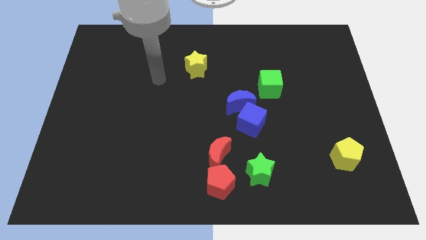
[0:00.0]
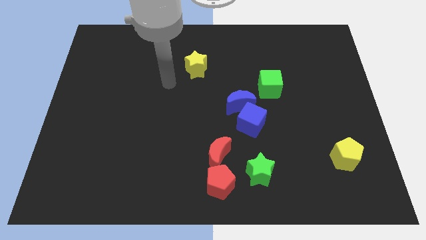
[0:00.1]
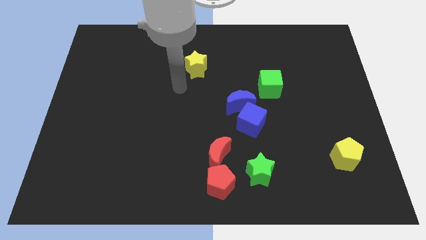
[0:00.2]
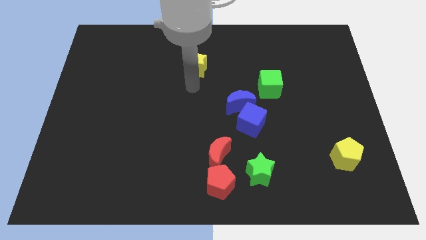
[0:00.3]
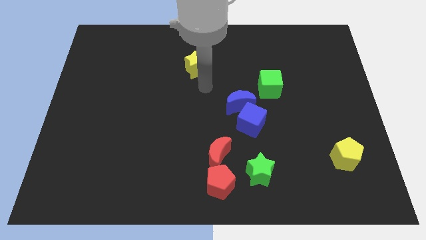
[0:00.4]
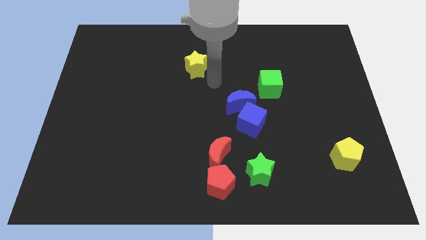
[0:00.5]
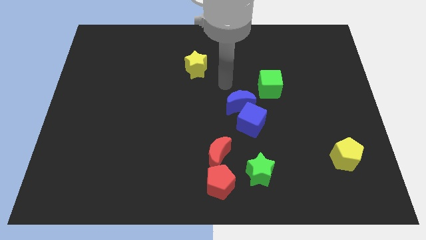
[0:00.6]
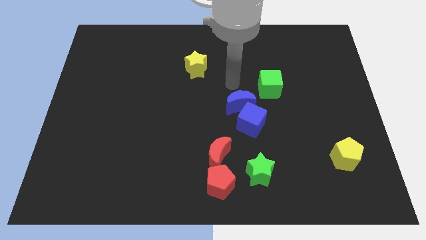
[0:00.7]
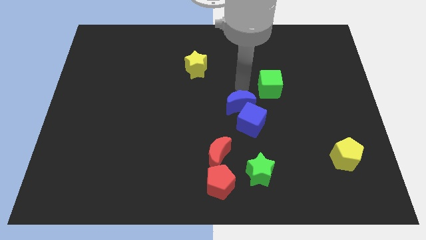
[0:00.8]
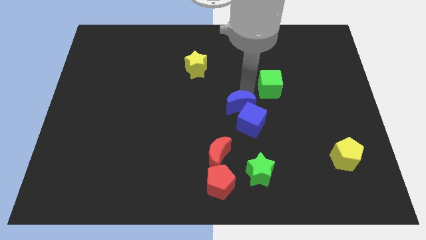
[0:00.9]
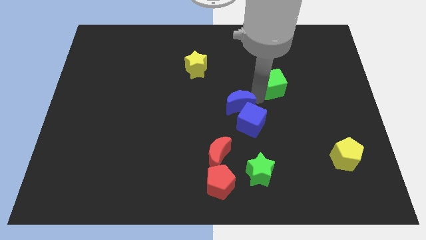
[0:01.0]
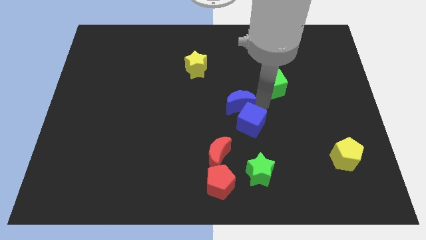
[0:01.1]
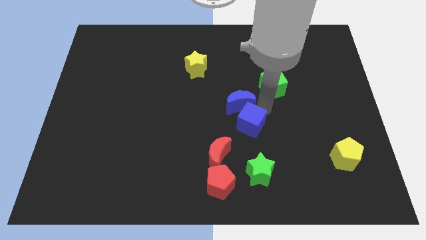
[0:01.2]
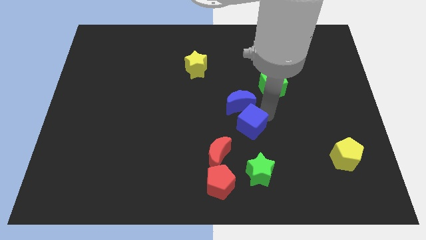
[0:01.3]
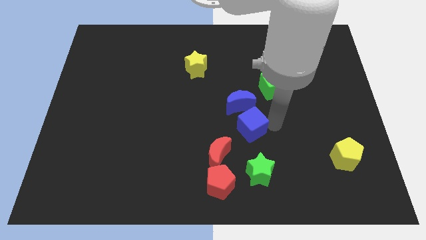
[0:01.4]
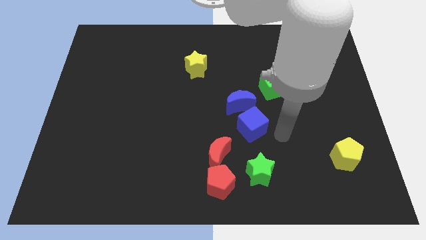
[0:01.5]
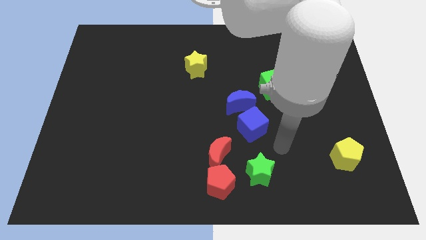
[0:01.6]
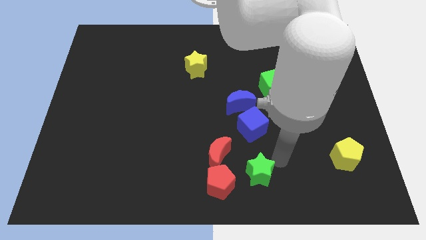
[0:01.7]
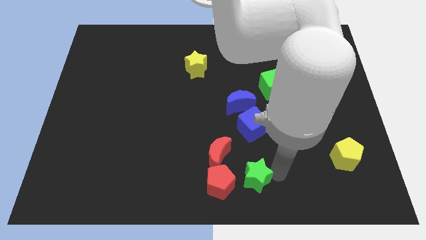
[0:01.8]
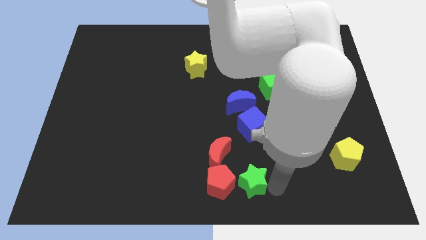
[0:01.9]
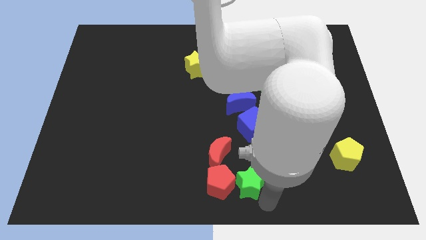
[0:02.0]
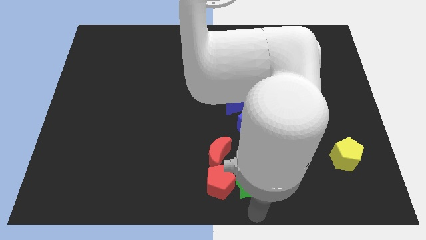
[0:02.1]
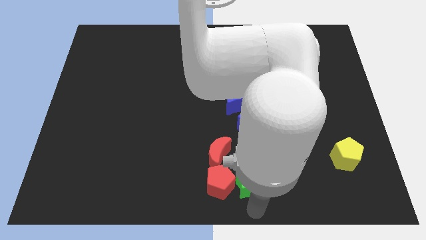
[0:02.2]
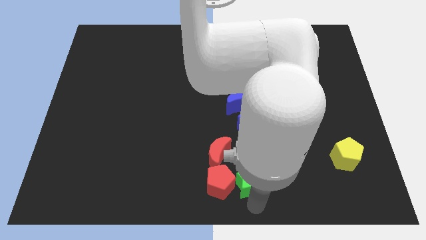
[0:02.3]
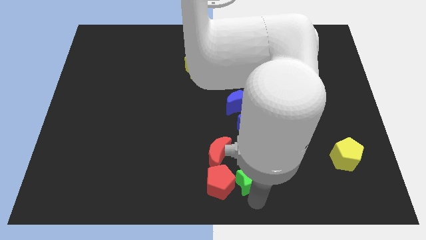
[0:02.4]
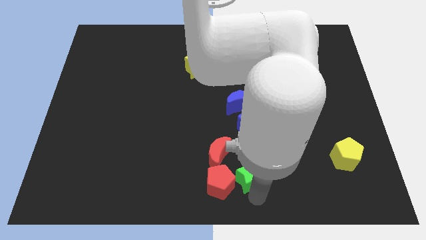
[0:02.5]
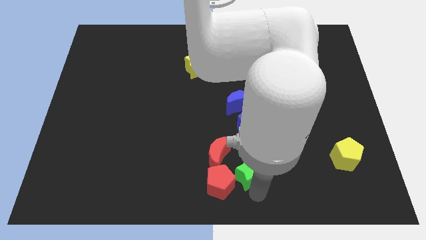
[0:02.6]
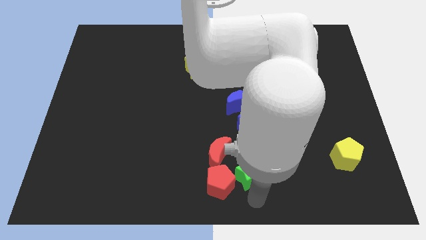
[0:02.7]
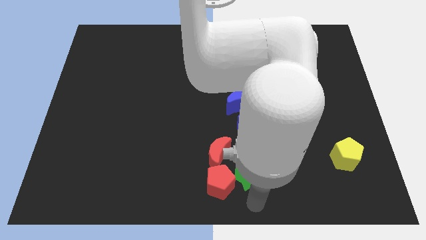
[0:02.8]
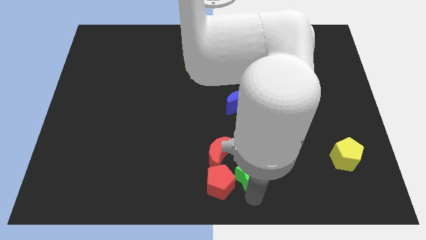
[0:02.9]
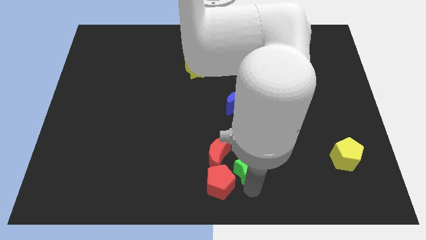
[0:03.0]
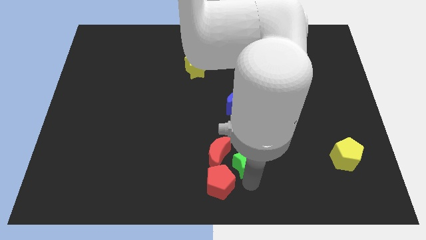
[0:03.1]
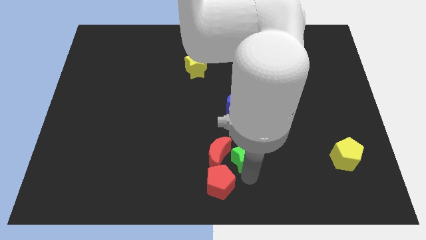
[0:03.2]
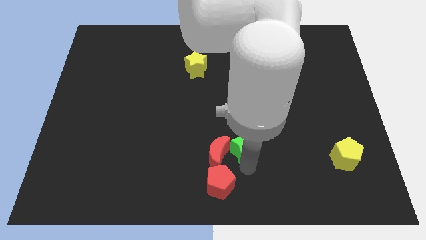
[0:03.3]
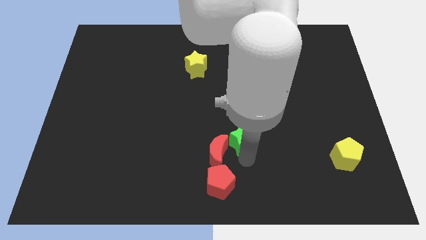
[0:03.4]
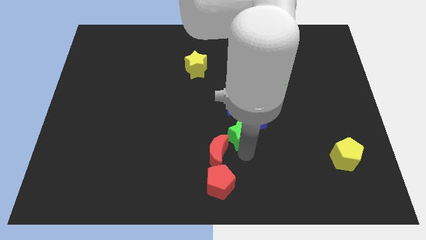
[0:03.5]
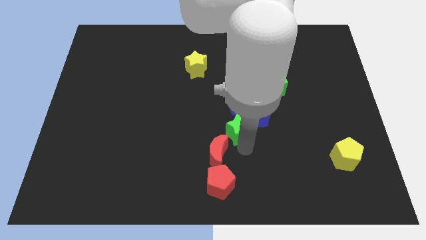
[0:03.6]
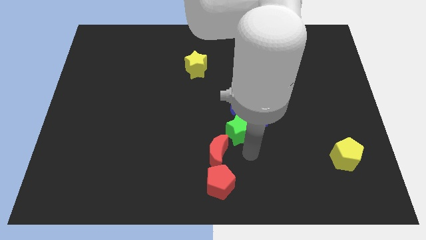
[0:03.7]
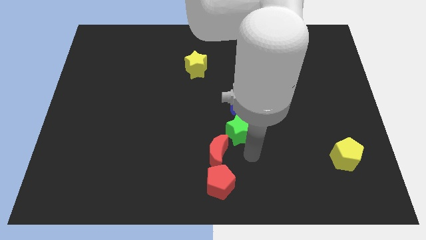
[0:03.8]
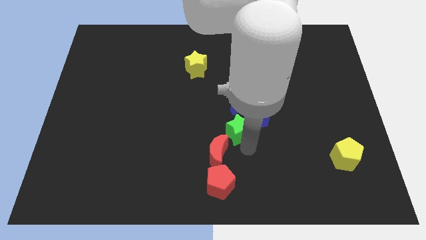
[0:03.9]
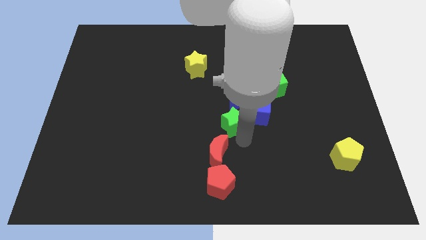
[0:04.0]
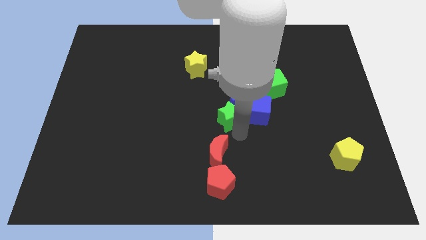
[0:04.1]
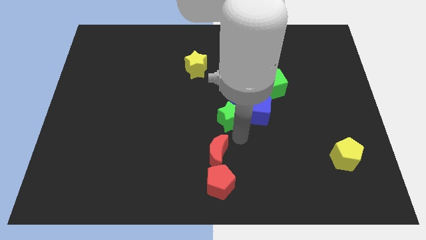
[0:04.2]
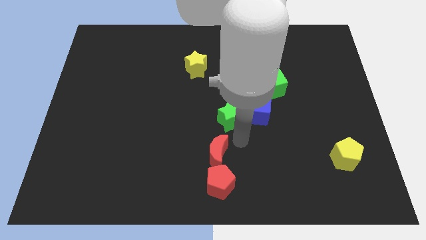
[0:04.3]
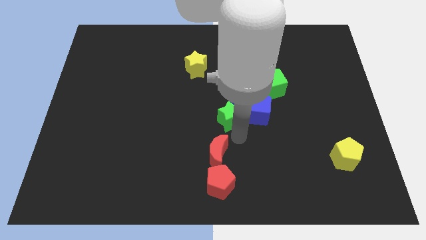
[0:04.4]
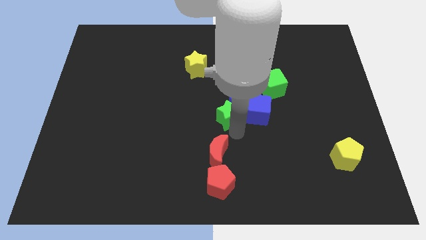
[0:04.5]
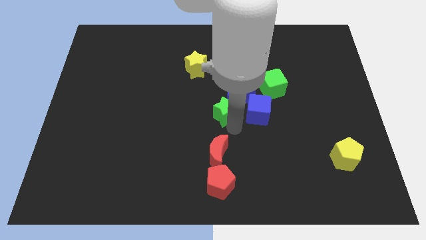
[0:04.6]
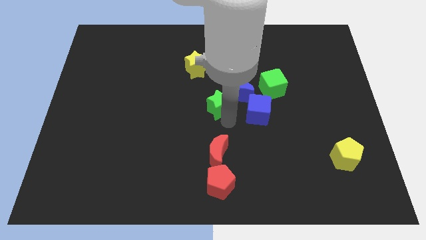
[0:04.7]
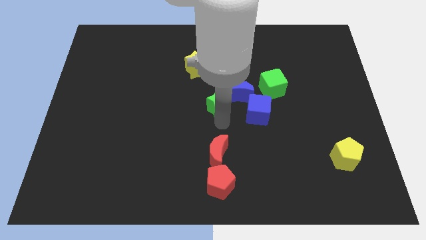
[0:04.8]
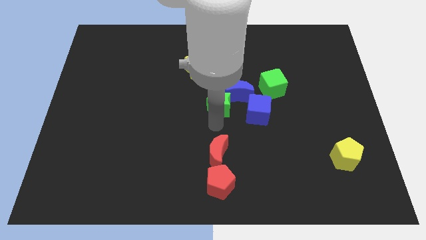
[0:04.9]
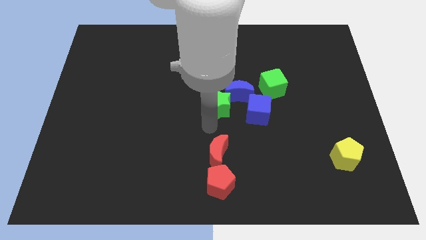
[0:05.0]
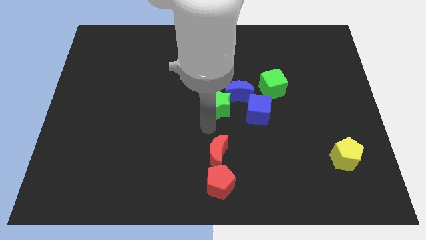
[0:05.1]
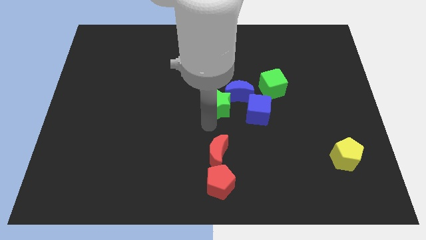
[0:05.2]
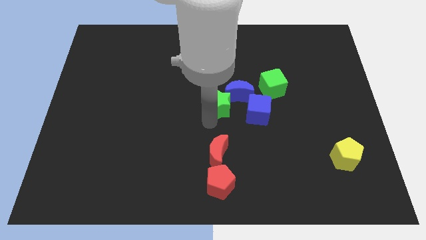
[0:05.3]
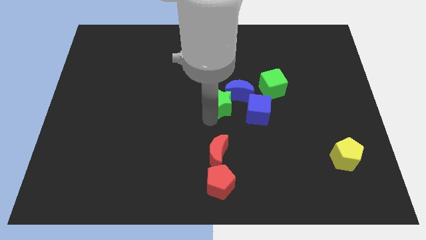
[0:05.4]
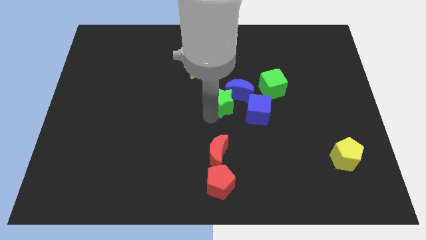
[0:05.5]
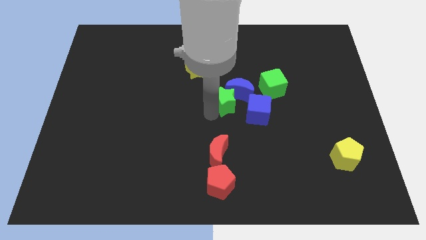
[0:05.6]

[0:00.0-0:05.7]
move the green star to the left of the green cube

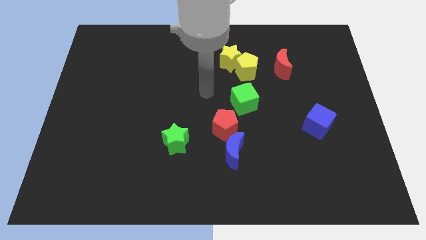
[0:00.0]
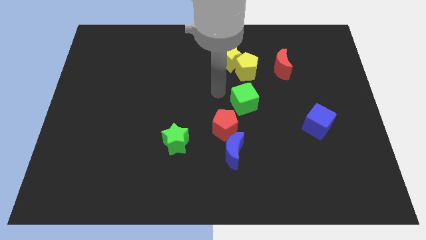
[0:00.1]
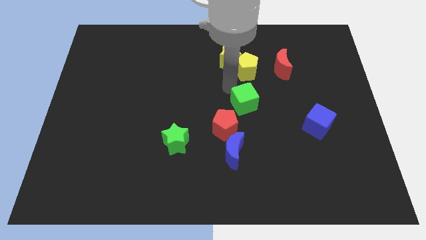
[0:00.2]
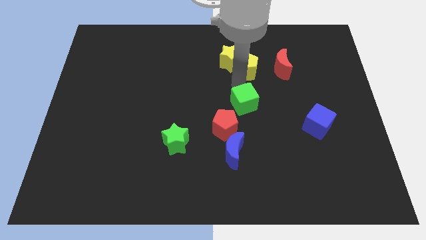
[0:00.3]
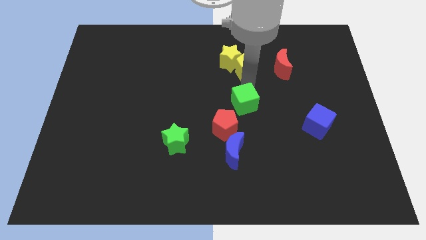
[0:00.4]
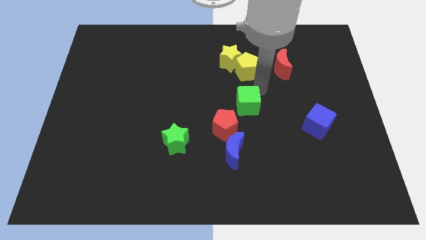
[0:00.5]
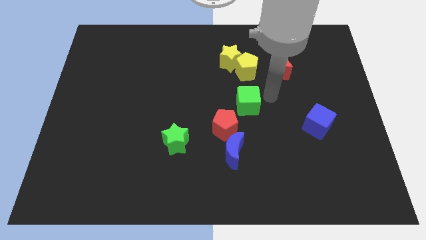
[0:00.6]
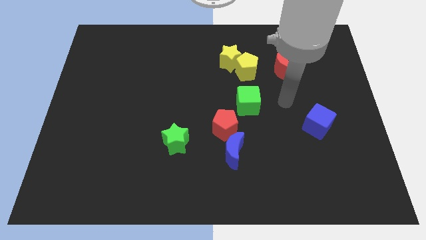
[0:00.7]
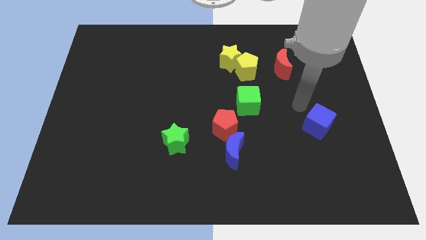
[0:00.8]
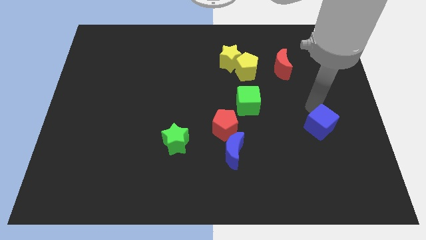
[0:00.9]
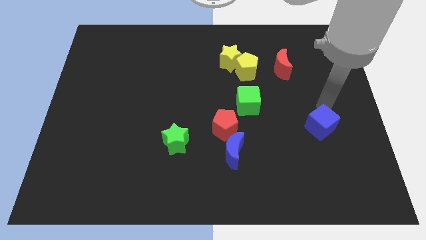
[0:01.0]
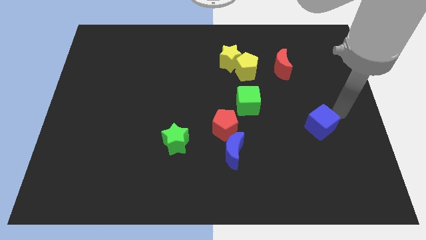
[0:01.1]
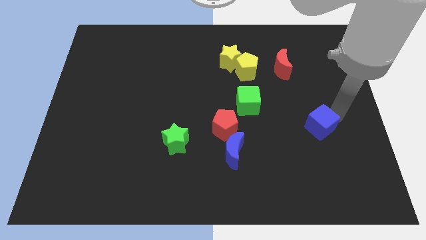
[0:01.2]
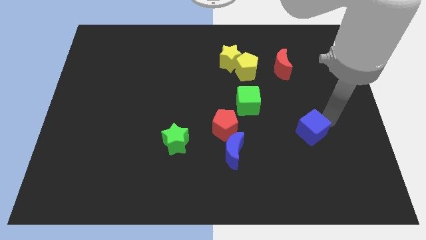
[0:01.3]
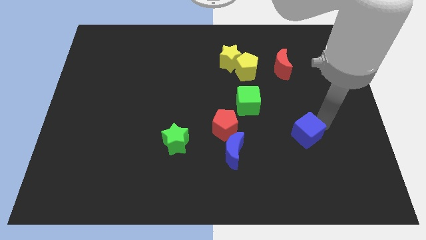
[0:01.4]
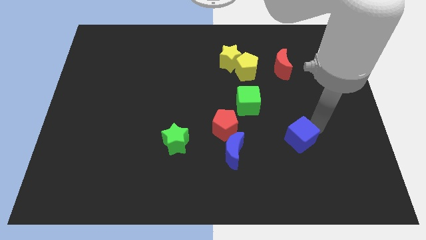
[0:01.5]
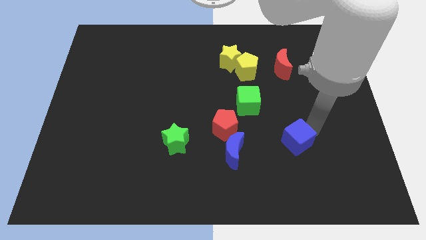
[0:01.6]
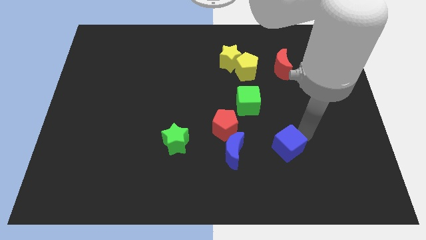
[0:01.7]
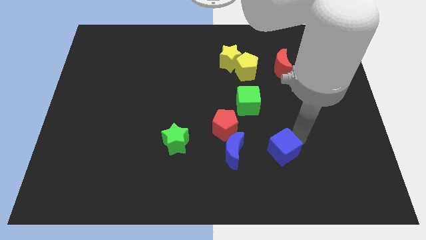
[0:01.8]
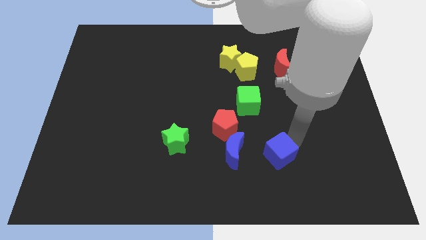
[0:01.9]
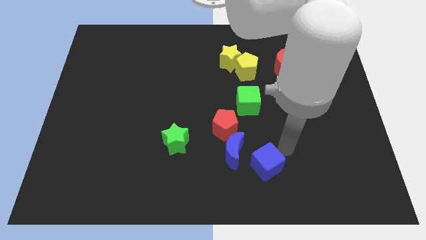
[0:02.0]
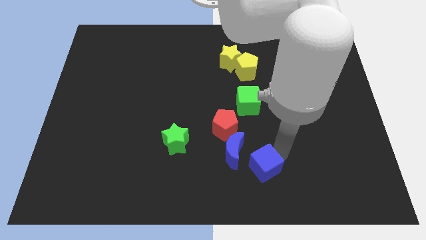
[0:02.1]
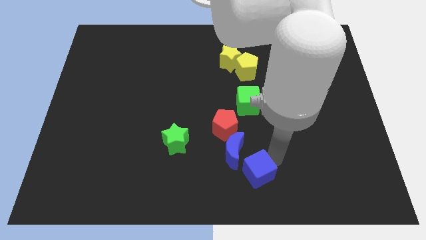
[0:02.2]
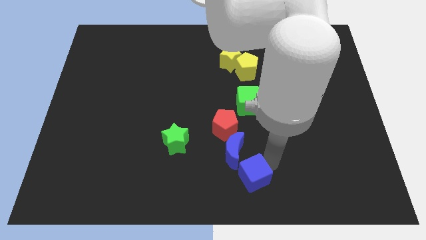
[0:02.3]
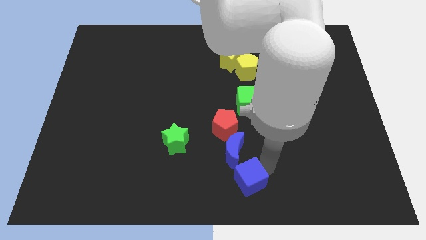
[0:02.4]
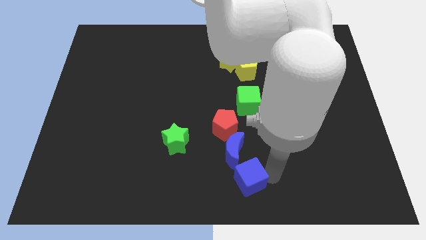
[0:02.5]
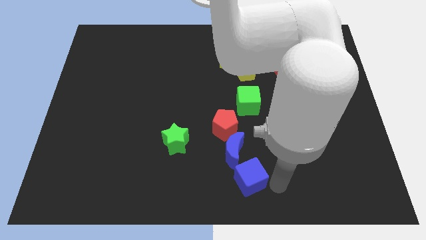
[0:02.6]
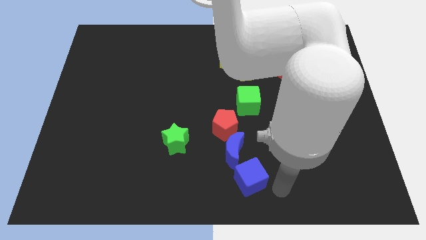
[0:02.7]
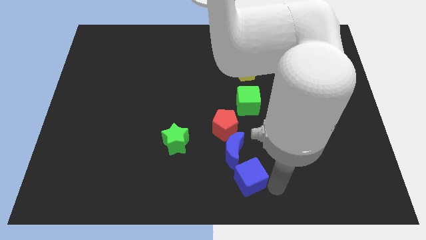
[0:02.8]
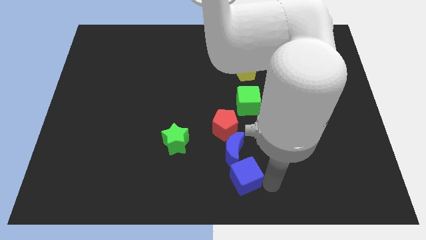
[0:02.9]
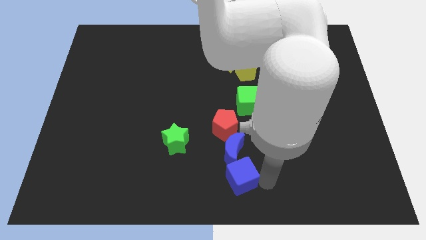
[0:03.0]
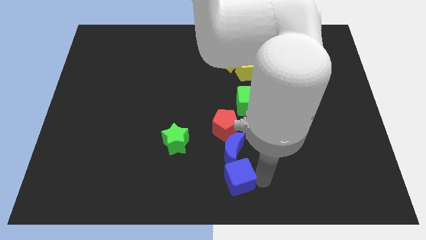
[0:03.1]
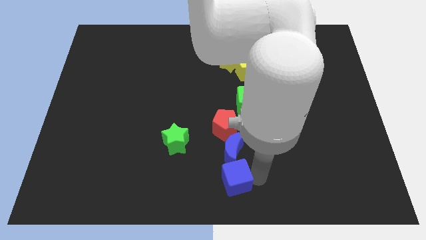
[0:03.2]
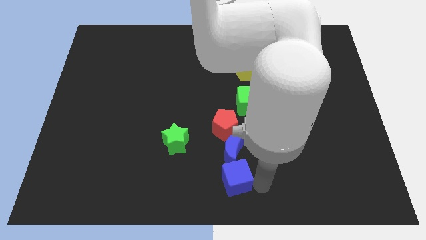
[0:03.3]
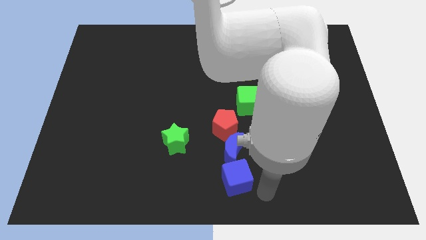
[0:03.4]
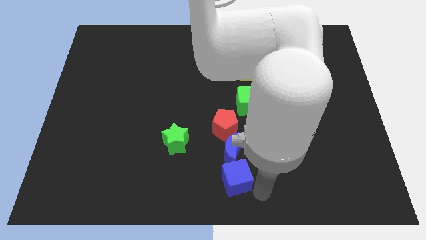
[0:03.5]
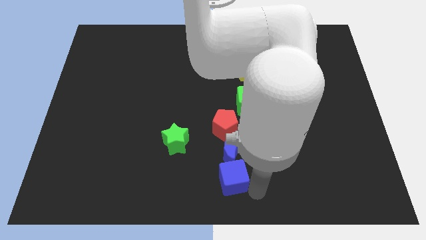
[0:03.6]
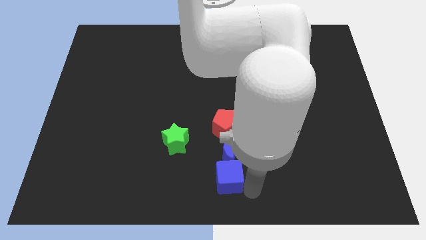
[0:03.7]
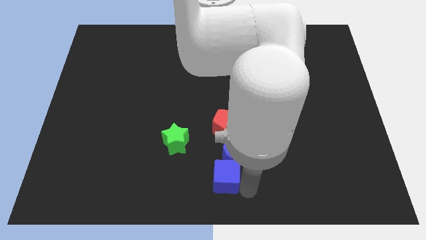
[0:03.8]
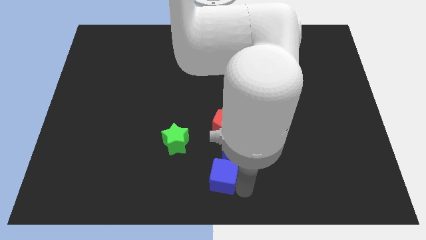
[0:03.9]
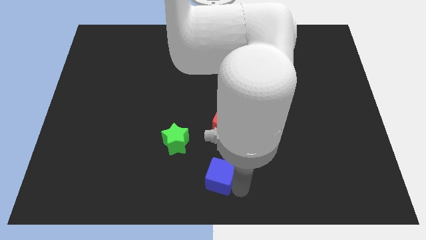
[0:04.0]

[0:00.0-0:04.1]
slide the blue cube to the bottom right side of the green star
